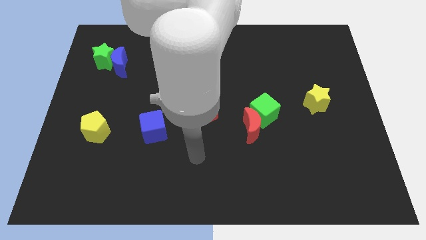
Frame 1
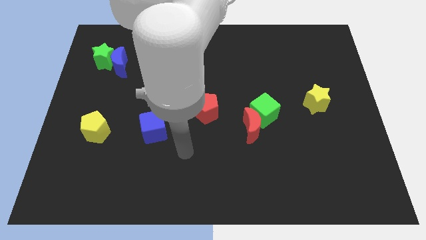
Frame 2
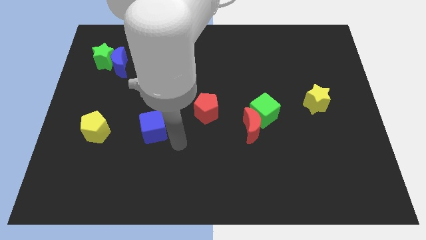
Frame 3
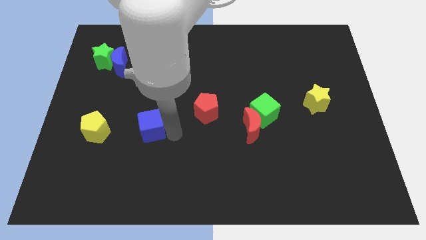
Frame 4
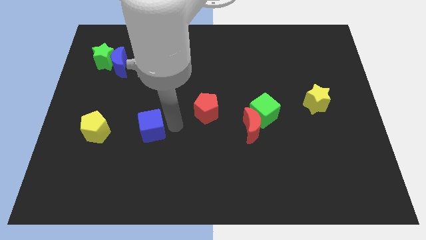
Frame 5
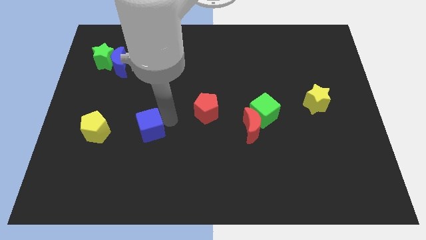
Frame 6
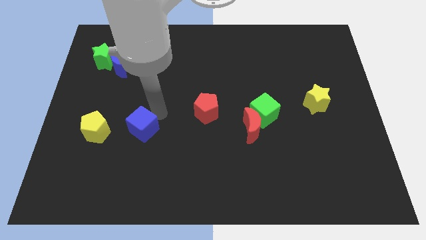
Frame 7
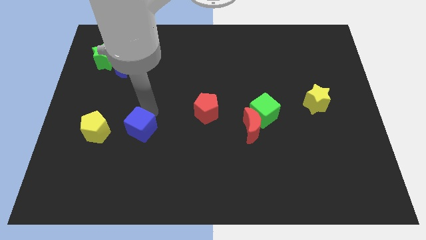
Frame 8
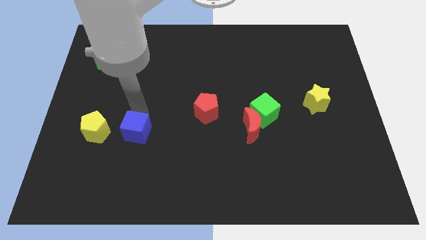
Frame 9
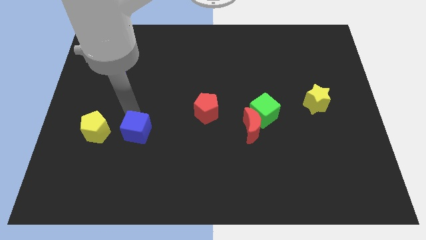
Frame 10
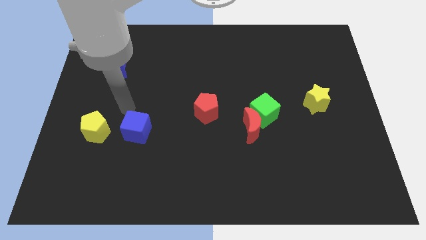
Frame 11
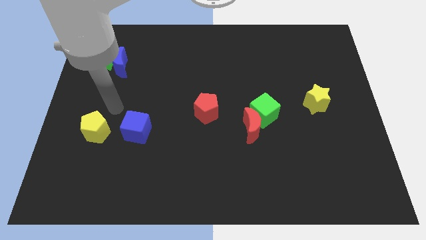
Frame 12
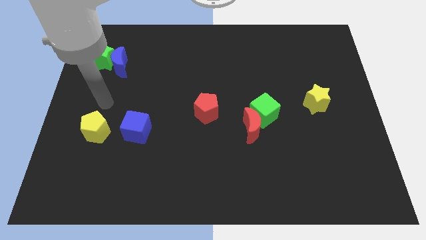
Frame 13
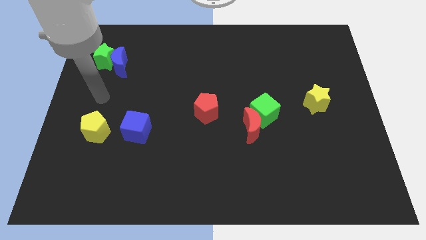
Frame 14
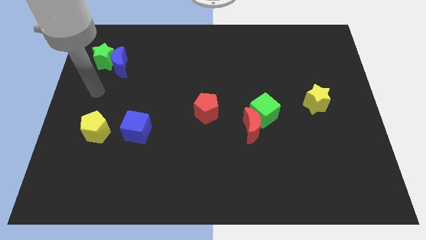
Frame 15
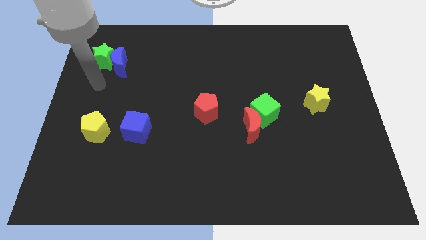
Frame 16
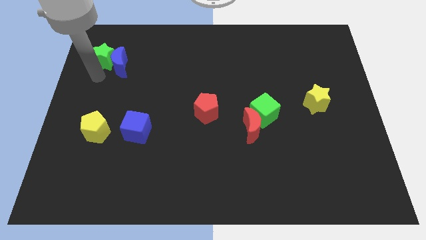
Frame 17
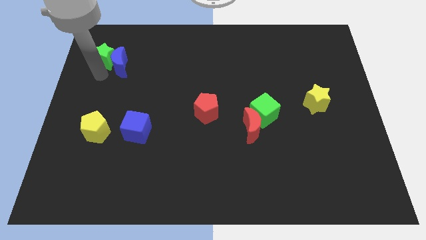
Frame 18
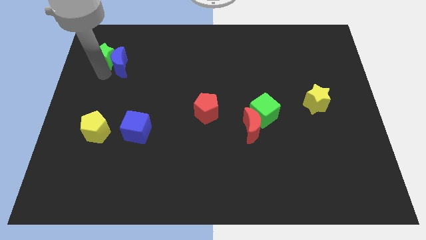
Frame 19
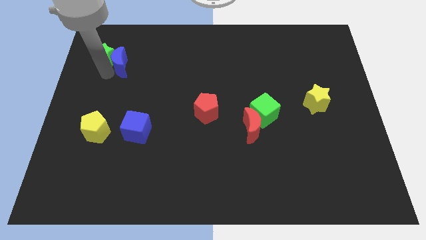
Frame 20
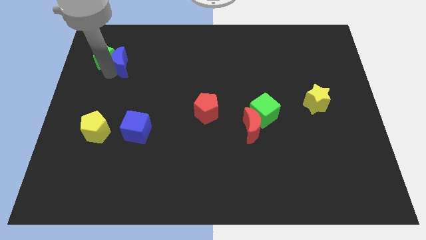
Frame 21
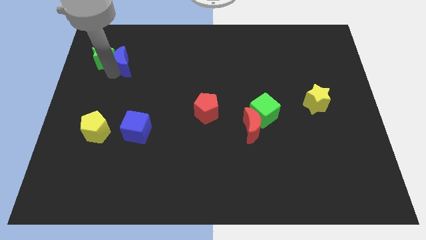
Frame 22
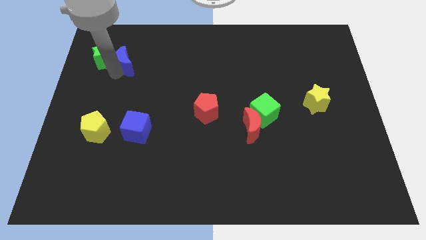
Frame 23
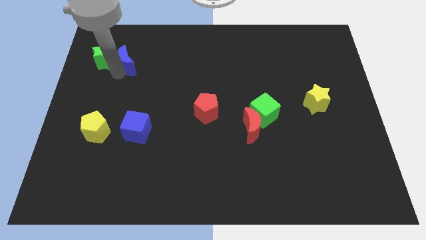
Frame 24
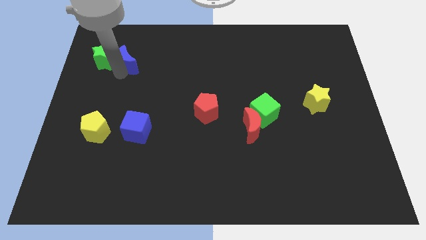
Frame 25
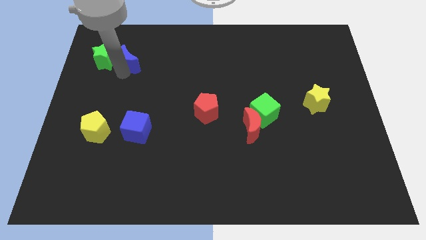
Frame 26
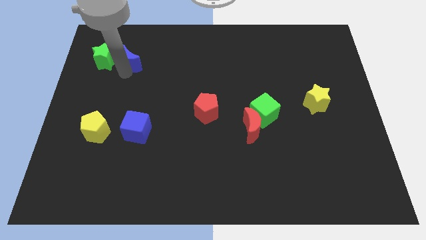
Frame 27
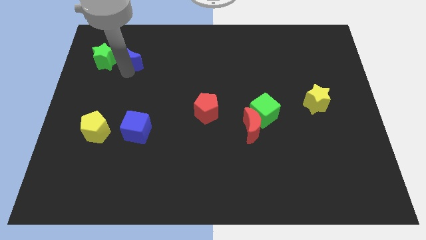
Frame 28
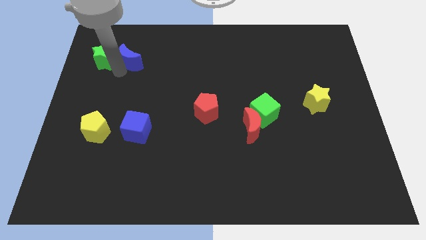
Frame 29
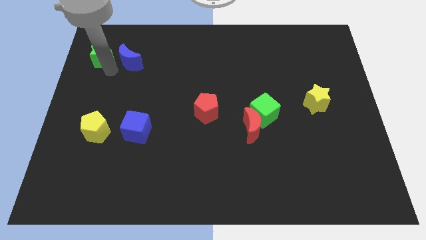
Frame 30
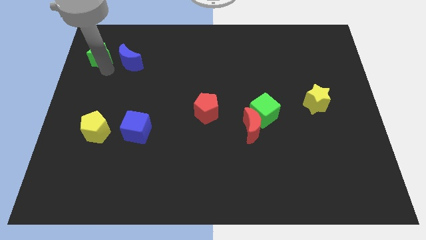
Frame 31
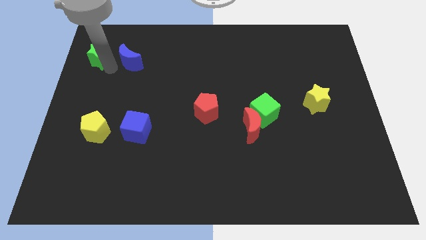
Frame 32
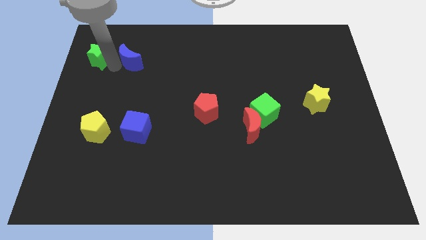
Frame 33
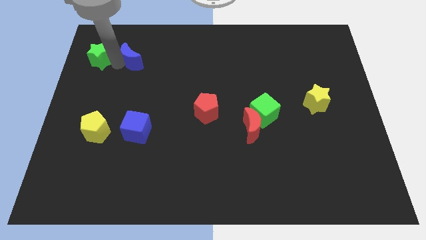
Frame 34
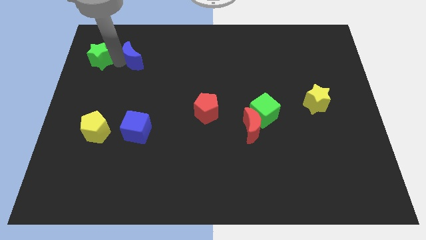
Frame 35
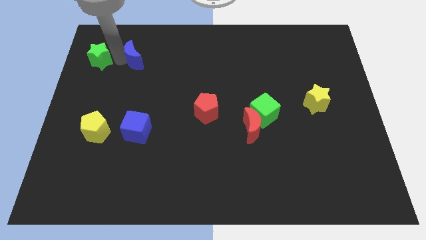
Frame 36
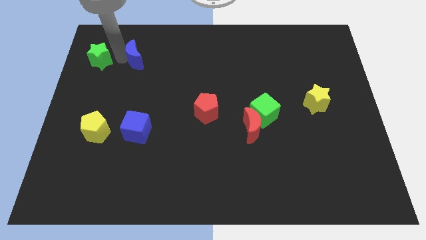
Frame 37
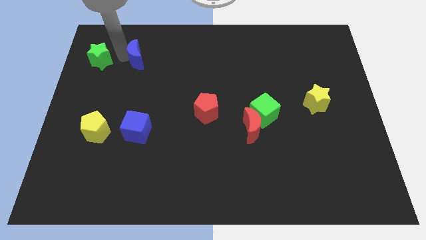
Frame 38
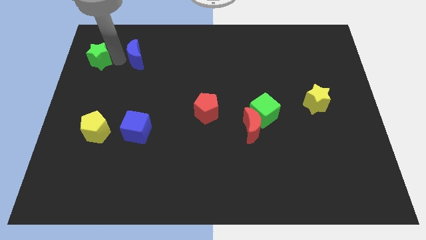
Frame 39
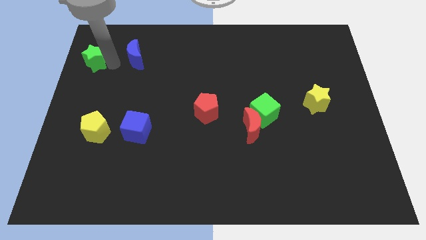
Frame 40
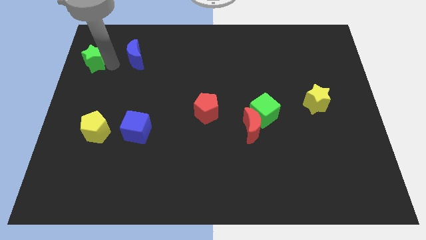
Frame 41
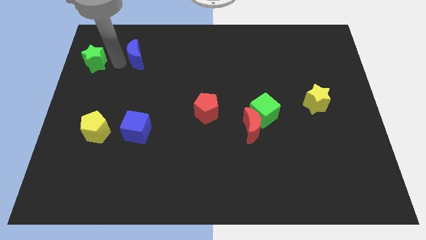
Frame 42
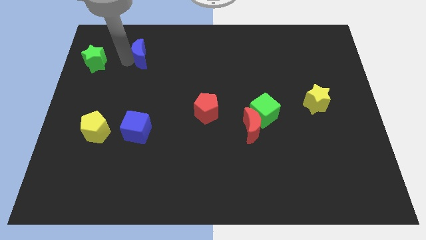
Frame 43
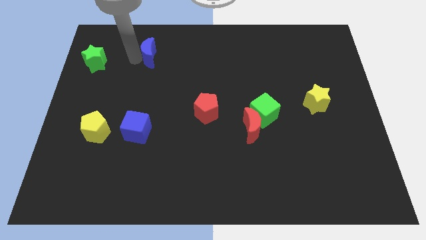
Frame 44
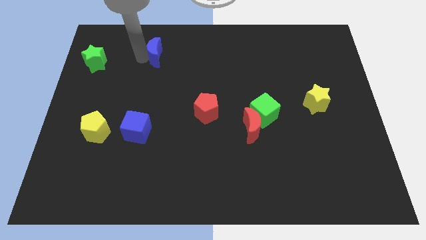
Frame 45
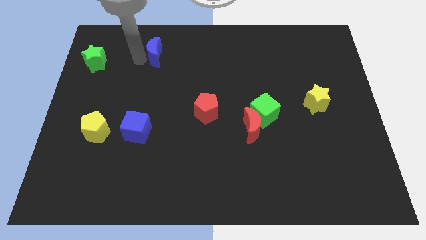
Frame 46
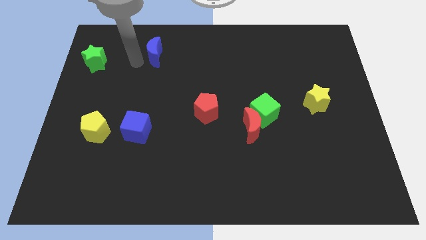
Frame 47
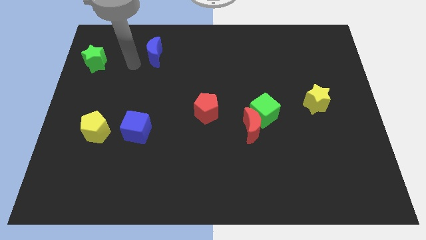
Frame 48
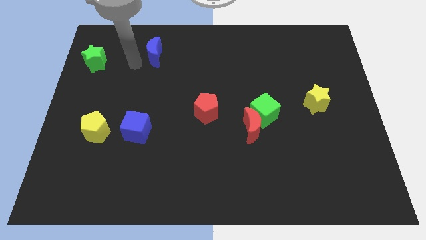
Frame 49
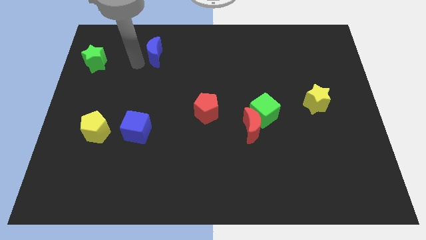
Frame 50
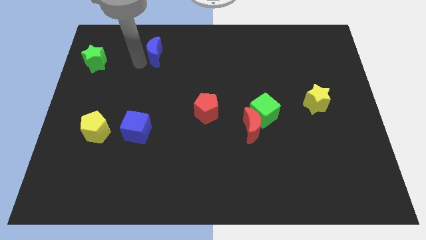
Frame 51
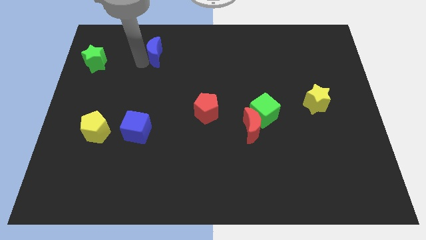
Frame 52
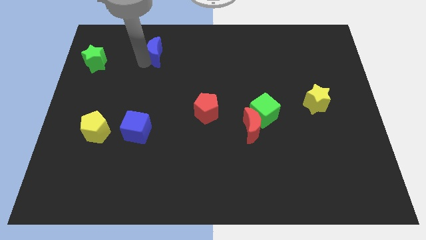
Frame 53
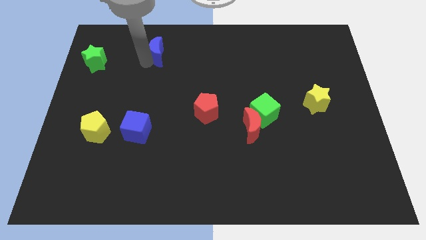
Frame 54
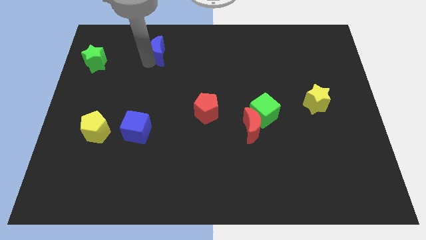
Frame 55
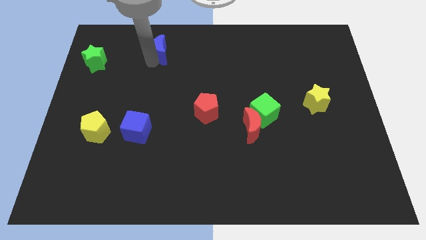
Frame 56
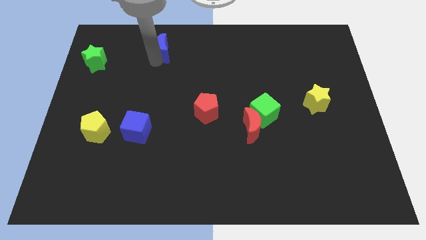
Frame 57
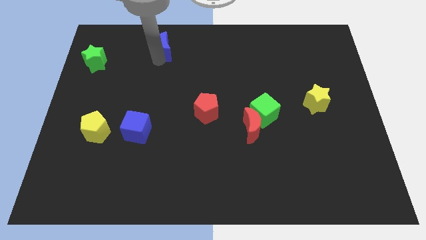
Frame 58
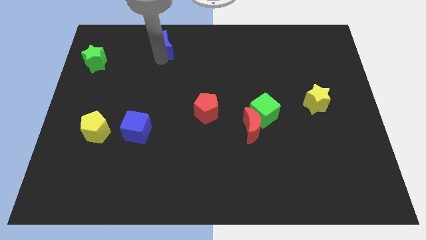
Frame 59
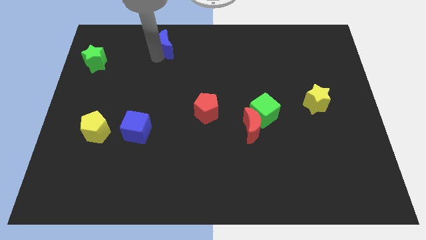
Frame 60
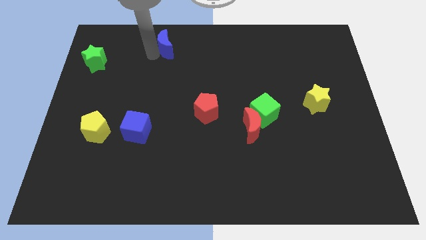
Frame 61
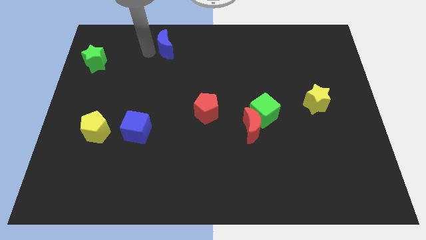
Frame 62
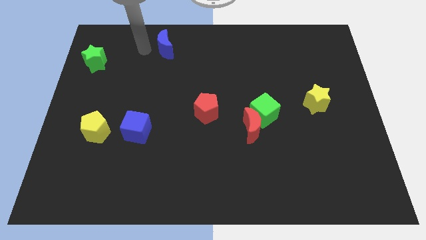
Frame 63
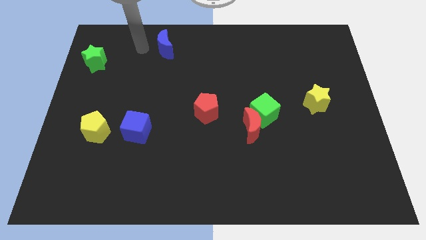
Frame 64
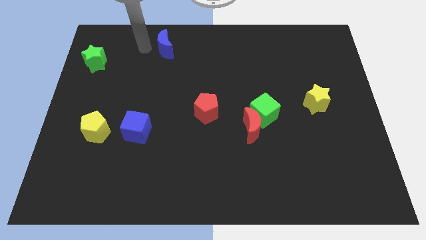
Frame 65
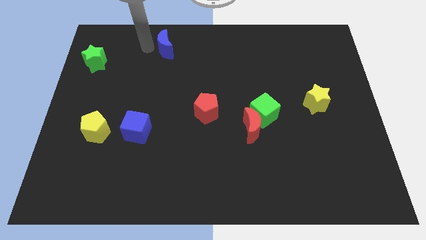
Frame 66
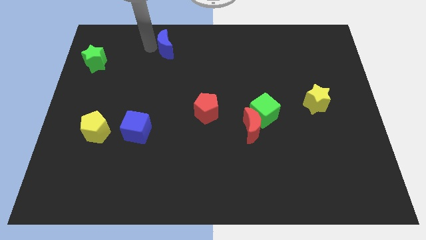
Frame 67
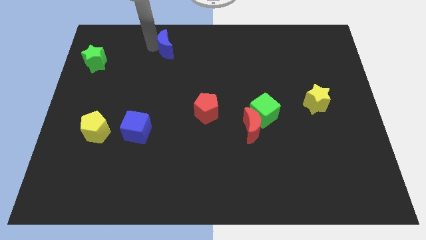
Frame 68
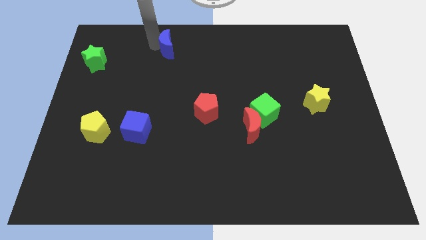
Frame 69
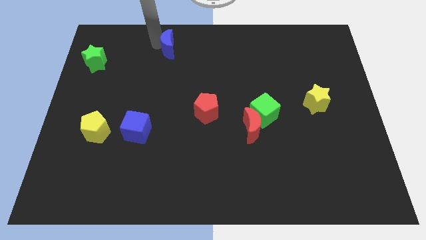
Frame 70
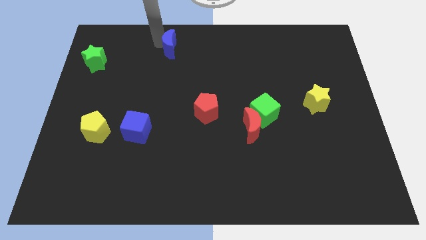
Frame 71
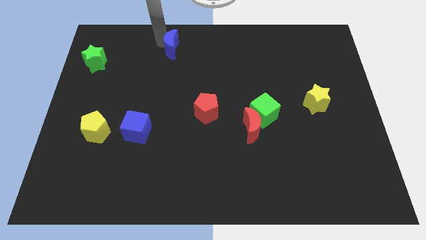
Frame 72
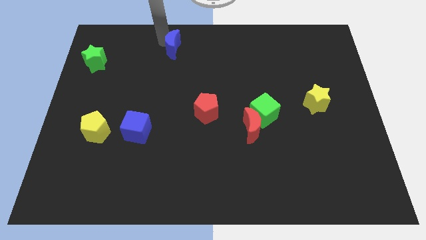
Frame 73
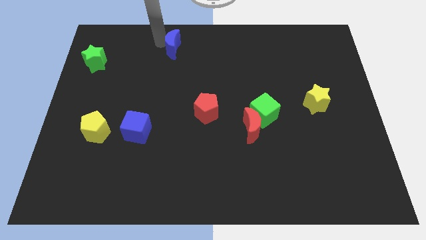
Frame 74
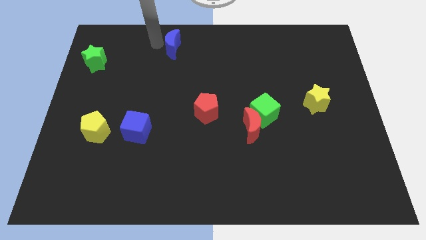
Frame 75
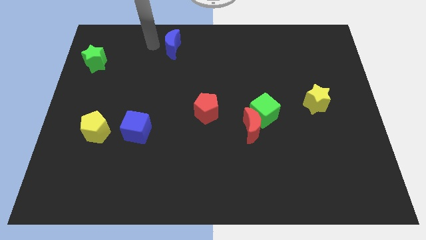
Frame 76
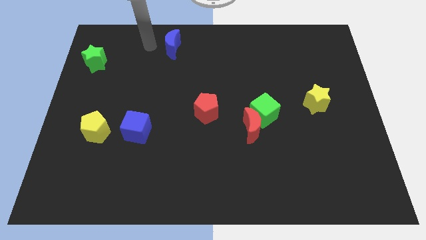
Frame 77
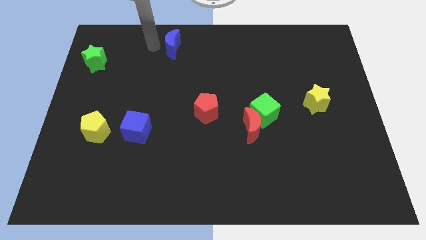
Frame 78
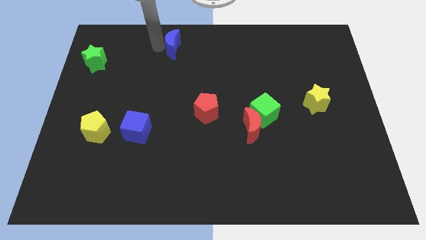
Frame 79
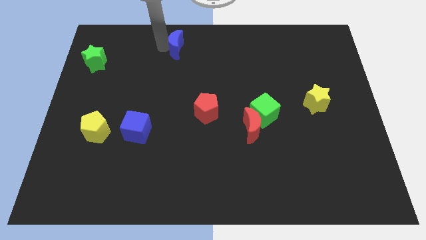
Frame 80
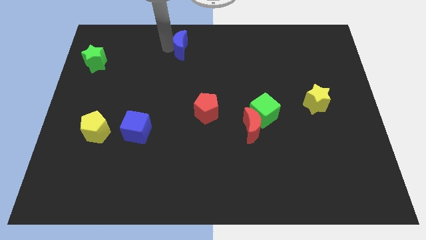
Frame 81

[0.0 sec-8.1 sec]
move the blue moon to the top side
